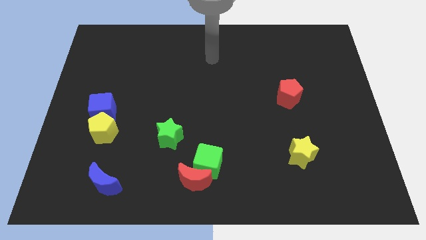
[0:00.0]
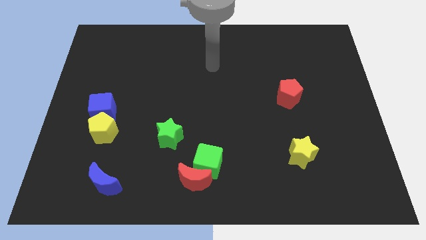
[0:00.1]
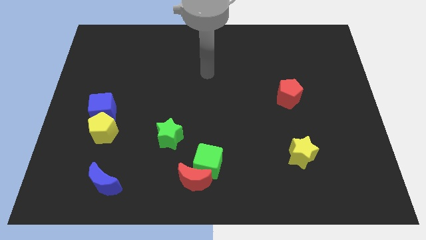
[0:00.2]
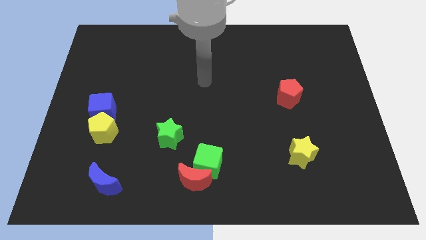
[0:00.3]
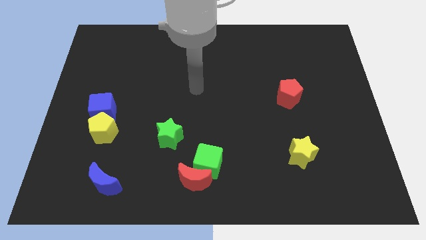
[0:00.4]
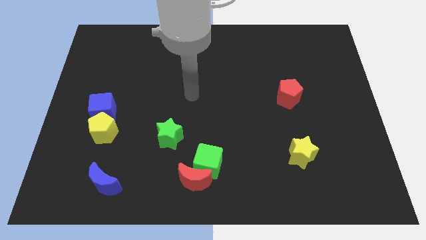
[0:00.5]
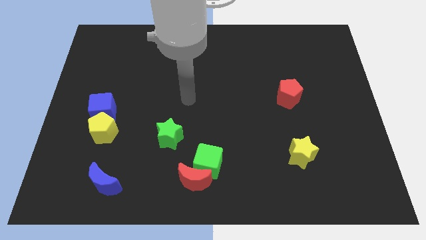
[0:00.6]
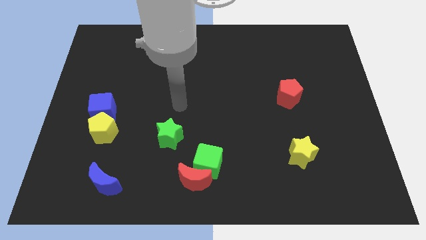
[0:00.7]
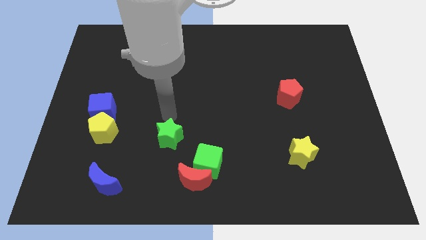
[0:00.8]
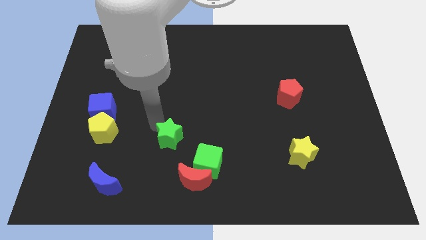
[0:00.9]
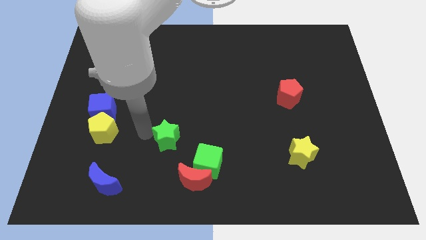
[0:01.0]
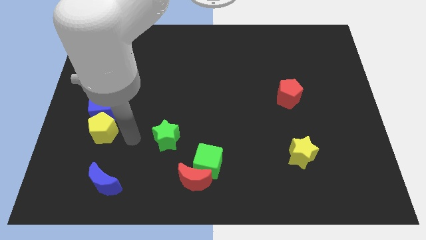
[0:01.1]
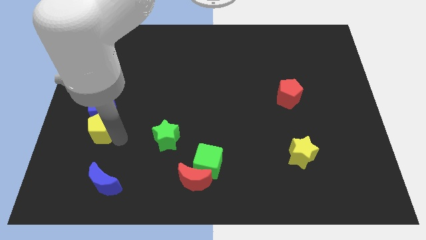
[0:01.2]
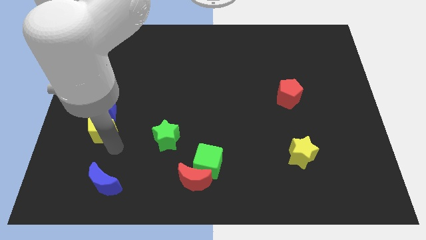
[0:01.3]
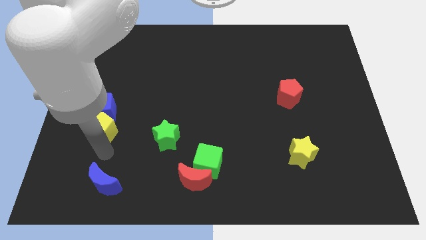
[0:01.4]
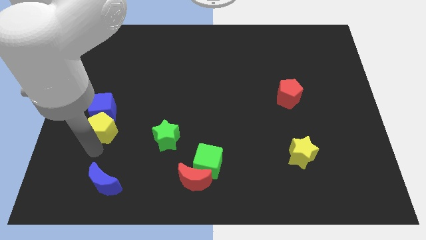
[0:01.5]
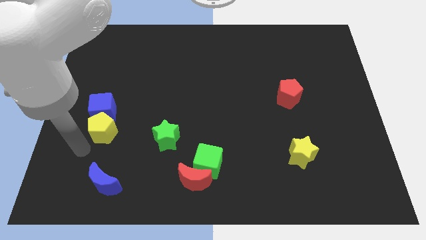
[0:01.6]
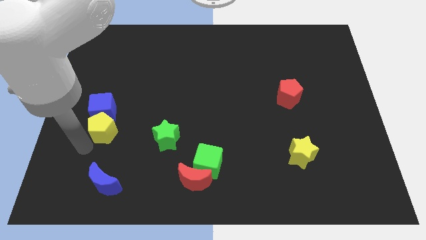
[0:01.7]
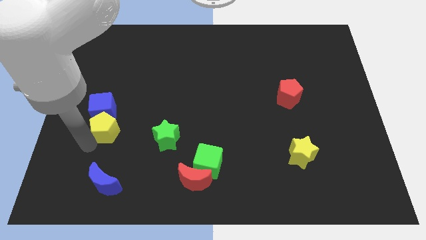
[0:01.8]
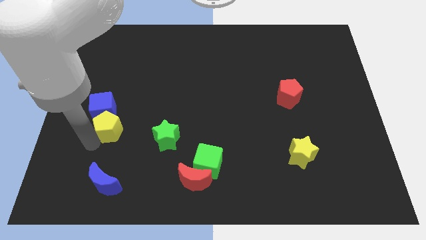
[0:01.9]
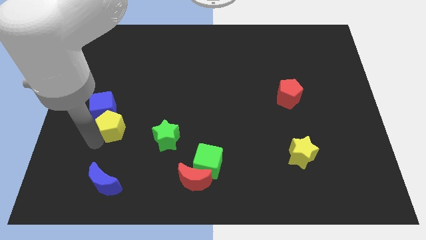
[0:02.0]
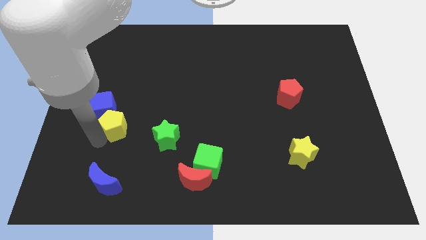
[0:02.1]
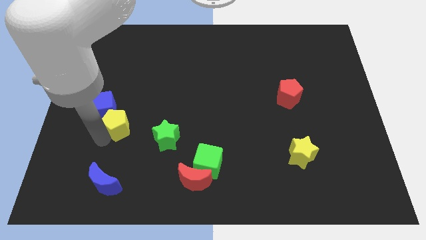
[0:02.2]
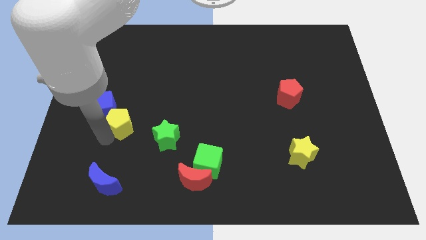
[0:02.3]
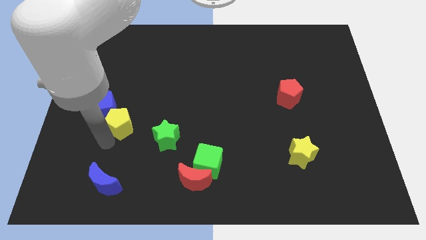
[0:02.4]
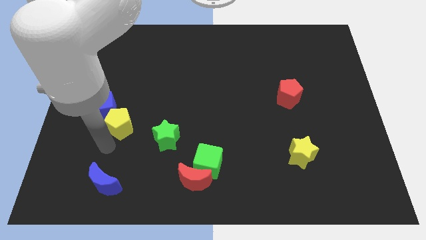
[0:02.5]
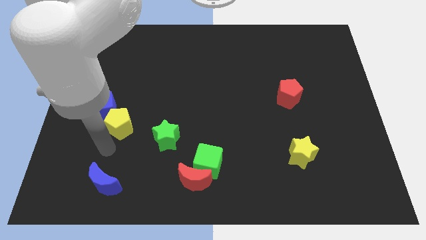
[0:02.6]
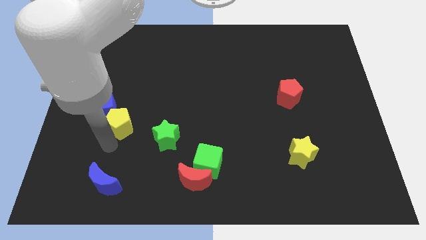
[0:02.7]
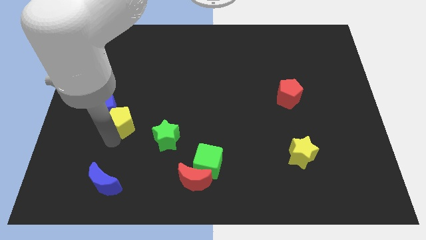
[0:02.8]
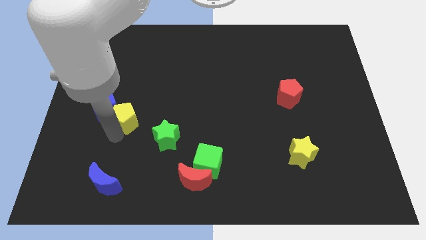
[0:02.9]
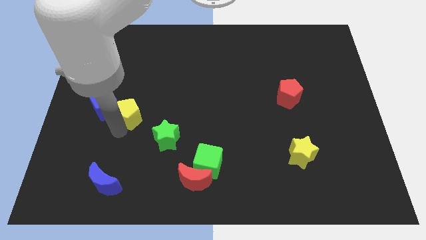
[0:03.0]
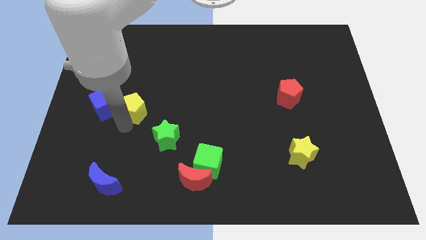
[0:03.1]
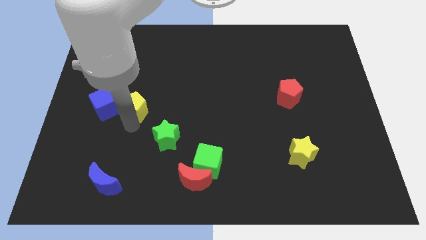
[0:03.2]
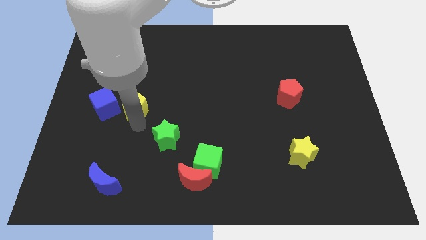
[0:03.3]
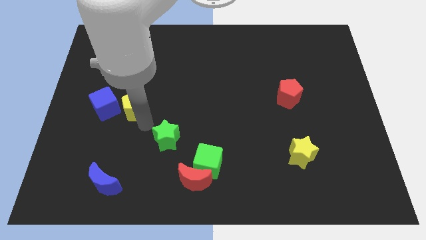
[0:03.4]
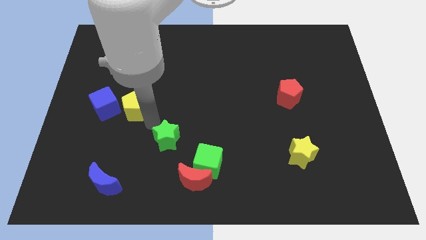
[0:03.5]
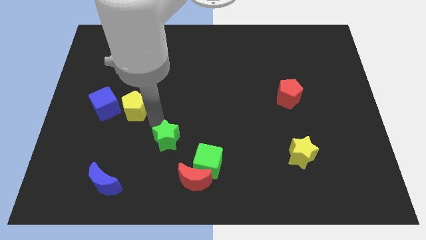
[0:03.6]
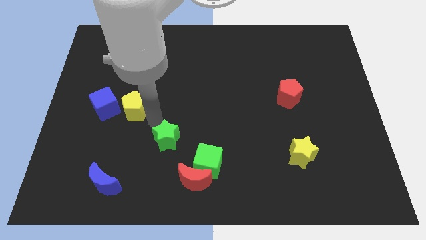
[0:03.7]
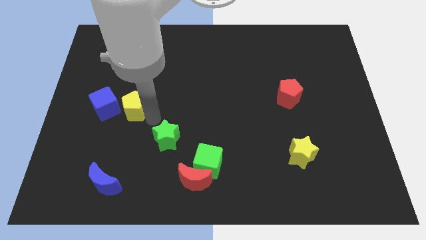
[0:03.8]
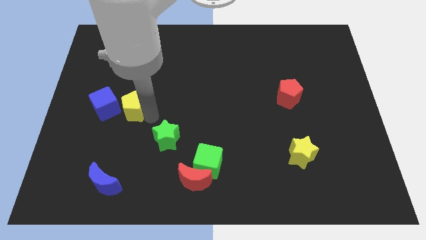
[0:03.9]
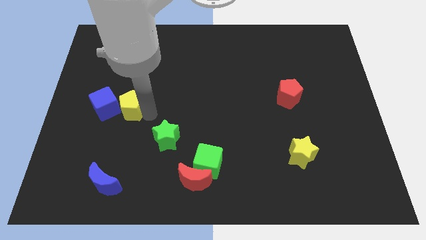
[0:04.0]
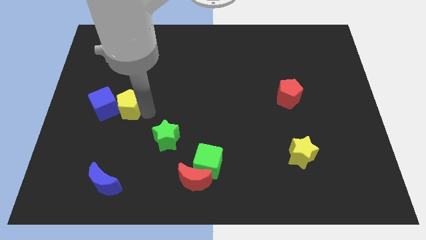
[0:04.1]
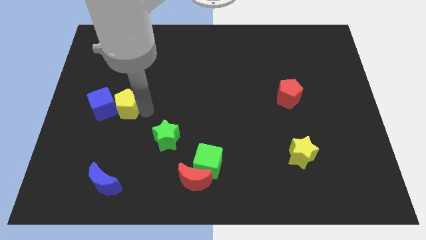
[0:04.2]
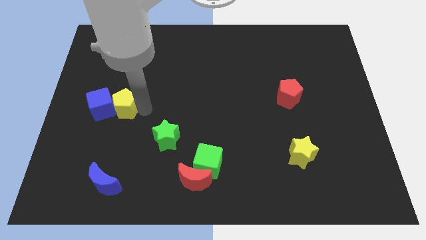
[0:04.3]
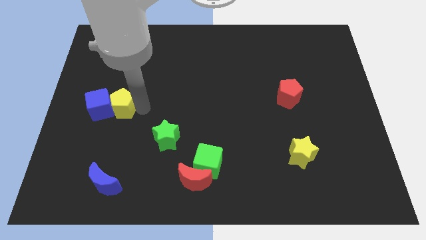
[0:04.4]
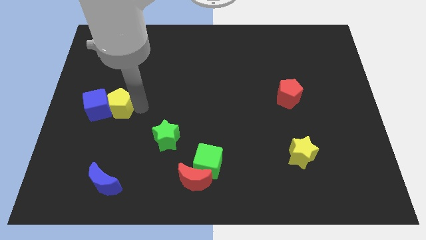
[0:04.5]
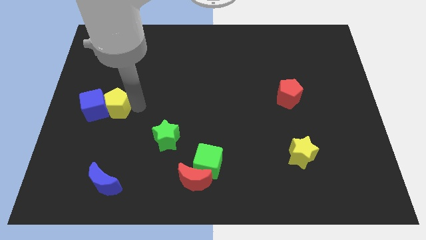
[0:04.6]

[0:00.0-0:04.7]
slide the yellow pentagon upwards a little

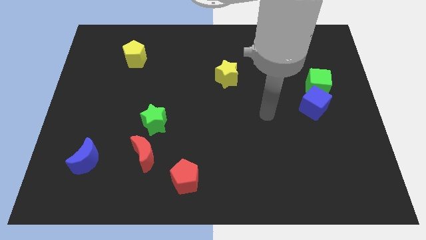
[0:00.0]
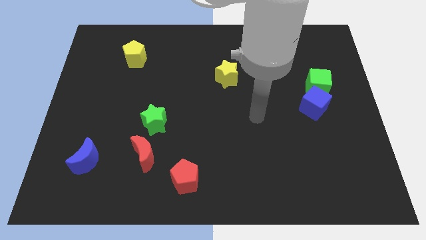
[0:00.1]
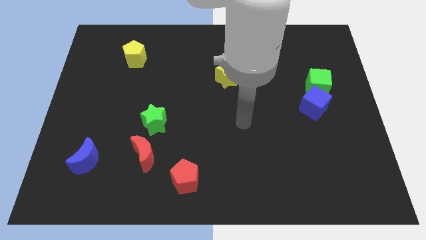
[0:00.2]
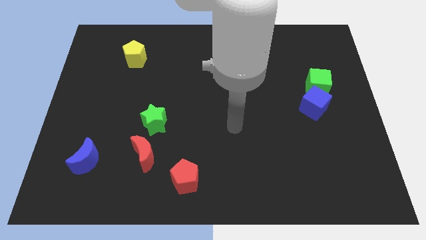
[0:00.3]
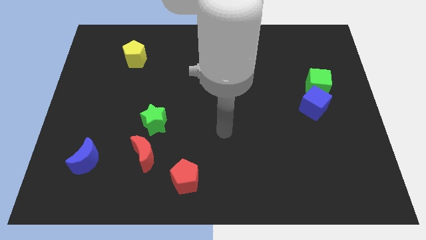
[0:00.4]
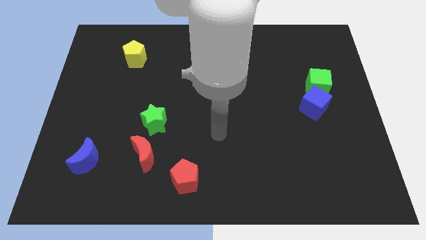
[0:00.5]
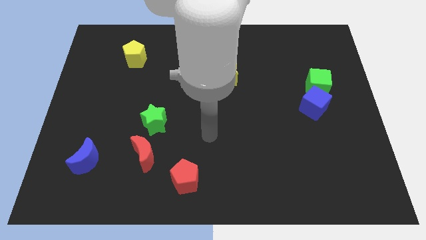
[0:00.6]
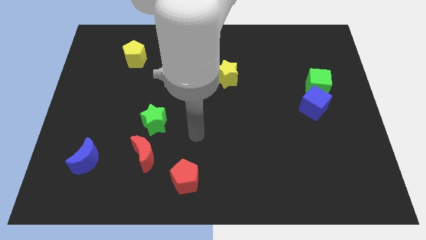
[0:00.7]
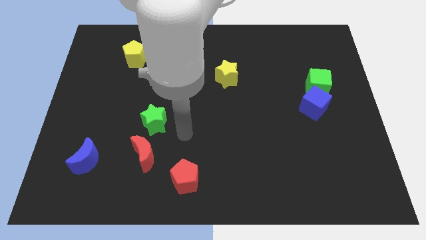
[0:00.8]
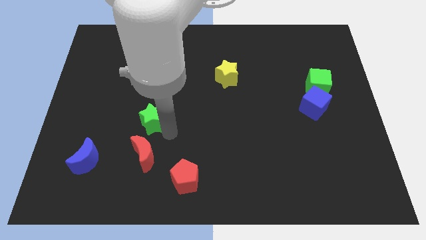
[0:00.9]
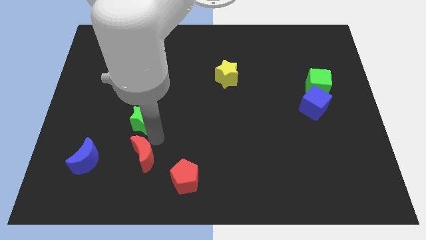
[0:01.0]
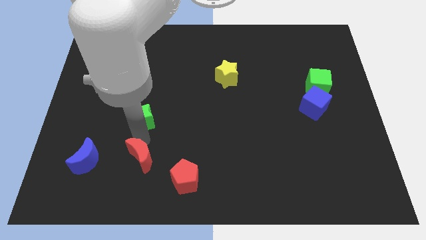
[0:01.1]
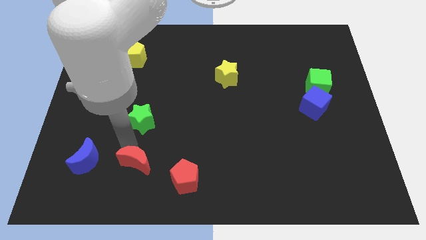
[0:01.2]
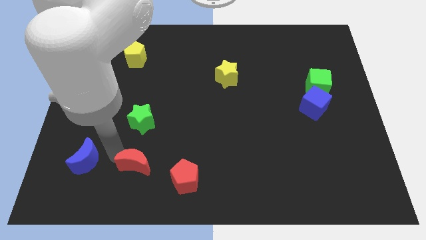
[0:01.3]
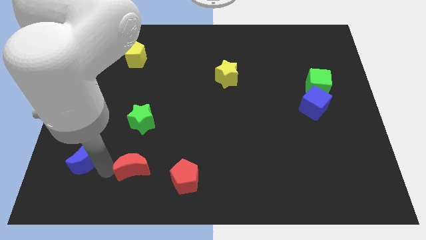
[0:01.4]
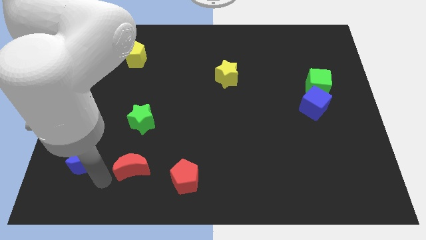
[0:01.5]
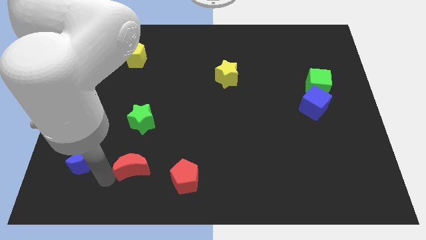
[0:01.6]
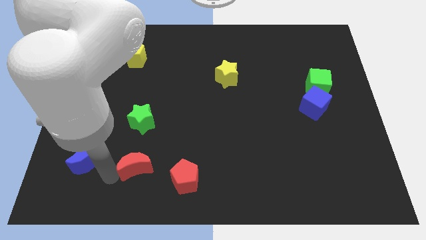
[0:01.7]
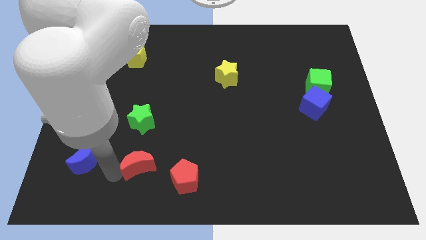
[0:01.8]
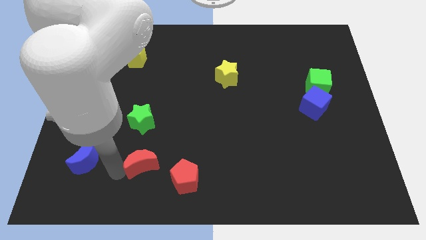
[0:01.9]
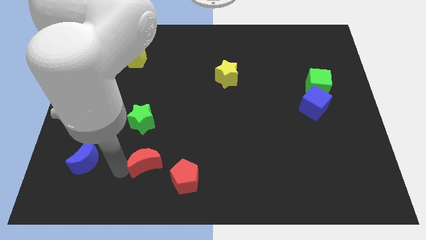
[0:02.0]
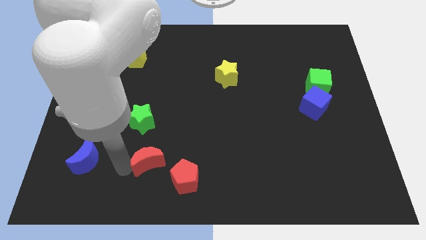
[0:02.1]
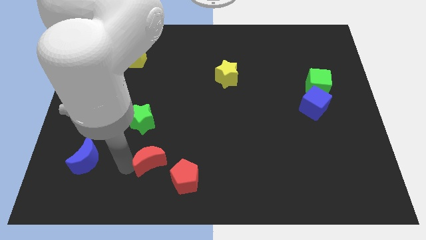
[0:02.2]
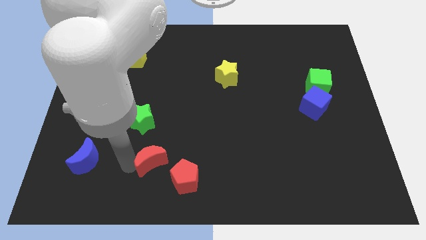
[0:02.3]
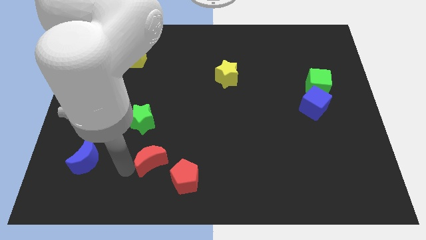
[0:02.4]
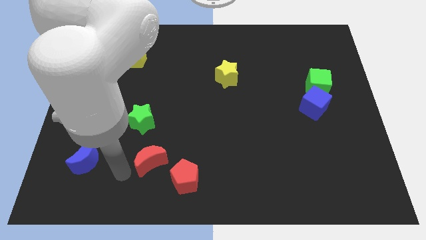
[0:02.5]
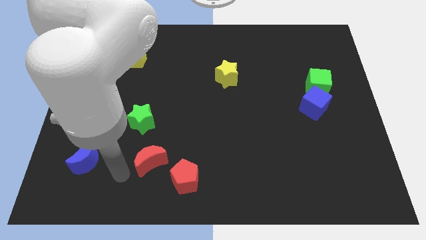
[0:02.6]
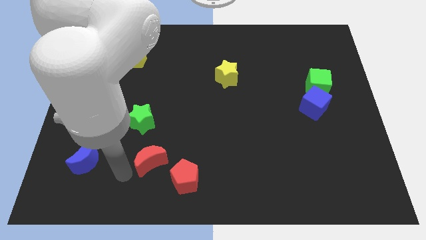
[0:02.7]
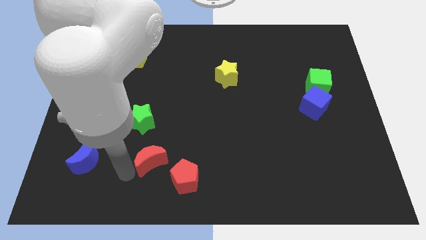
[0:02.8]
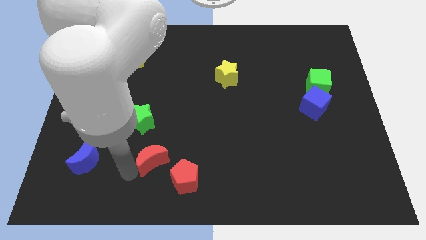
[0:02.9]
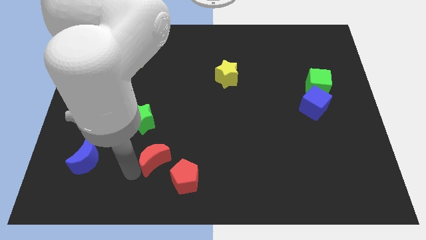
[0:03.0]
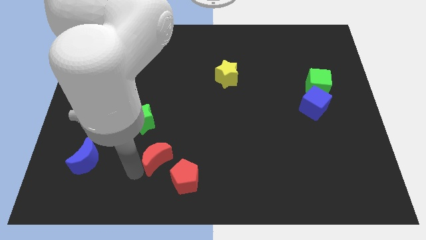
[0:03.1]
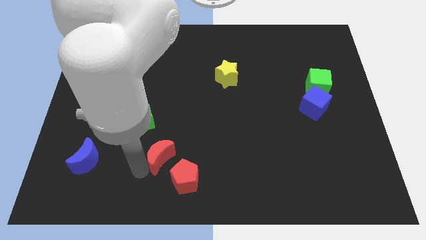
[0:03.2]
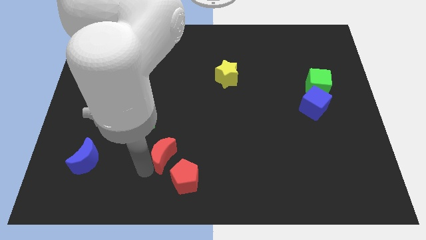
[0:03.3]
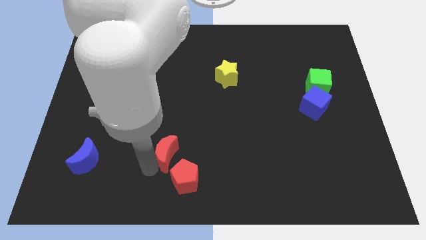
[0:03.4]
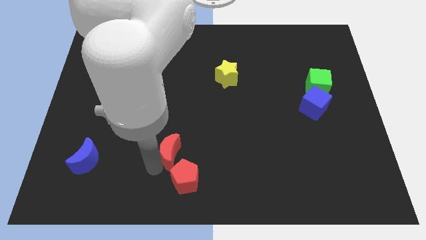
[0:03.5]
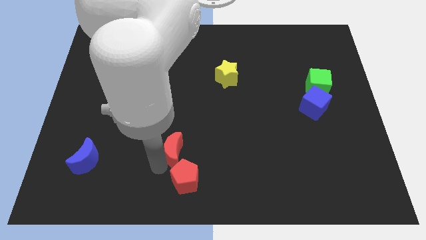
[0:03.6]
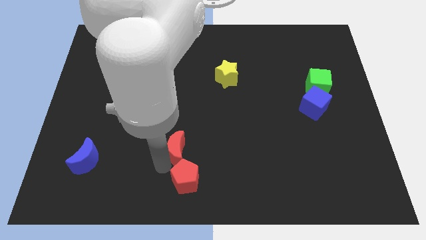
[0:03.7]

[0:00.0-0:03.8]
slightly push the red moon to the right

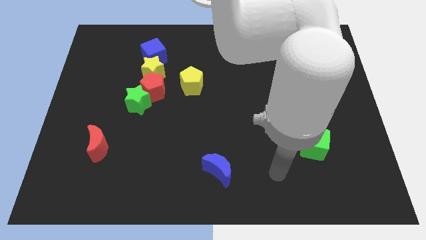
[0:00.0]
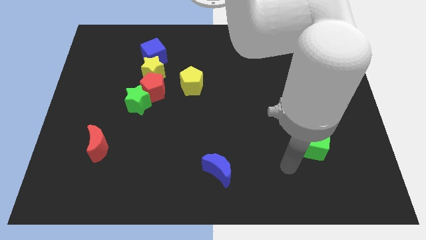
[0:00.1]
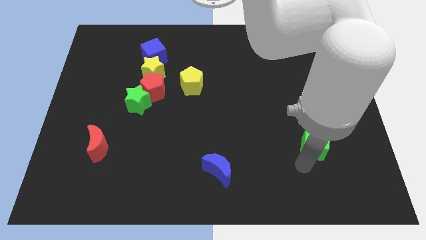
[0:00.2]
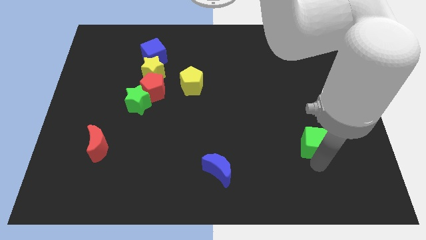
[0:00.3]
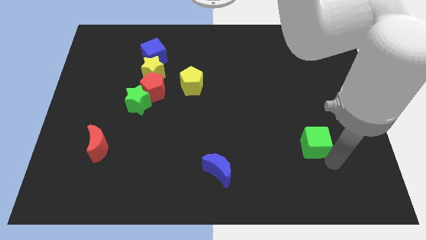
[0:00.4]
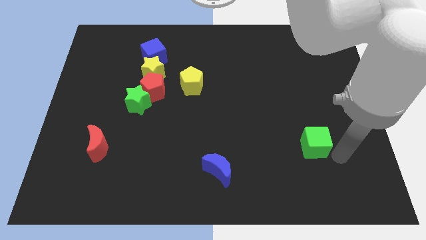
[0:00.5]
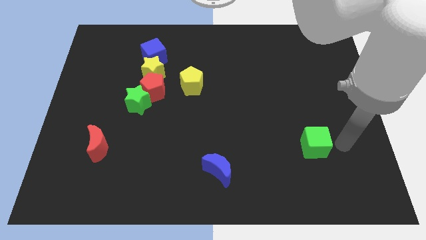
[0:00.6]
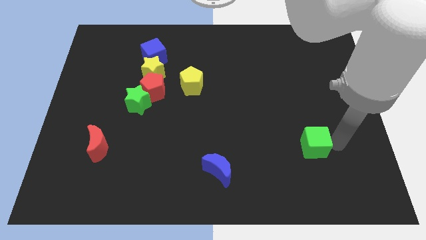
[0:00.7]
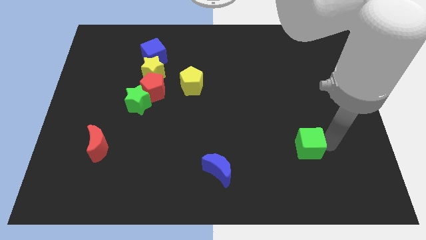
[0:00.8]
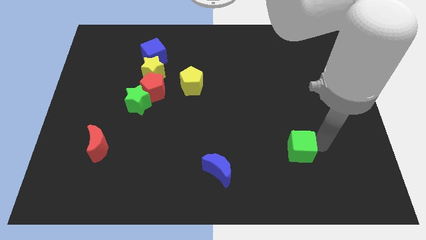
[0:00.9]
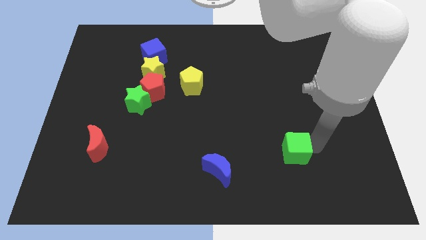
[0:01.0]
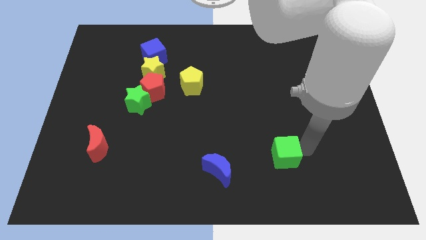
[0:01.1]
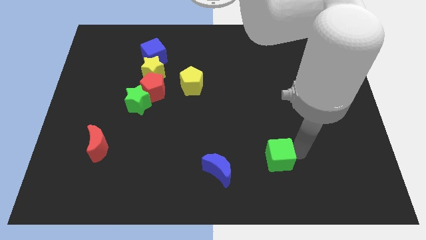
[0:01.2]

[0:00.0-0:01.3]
move the green cube a bit to the left
